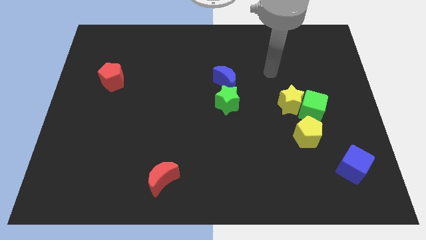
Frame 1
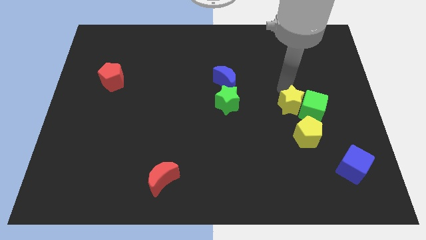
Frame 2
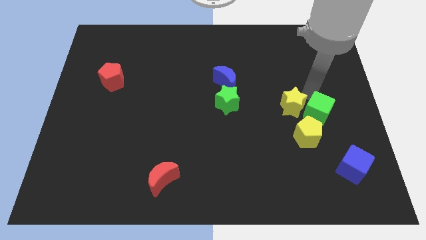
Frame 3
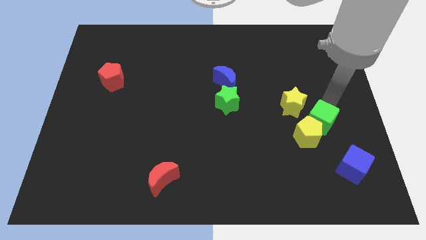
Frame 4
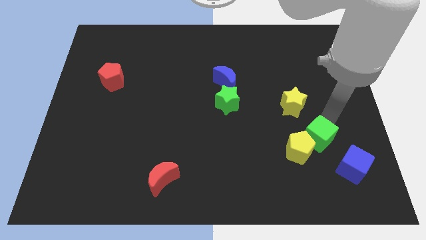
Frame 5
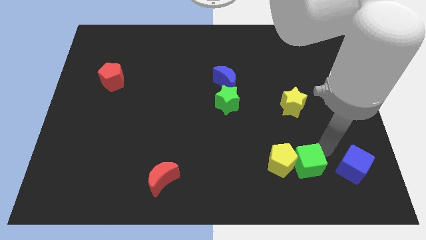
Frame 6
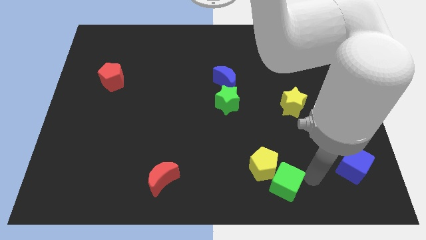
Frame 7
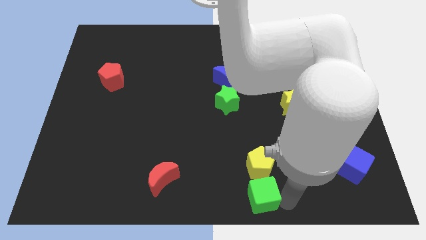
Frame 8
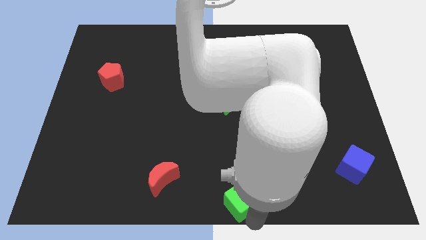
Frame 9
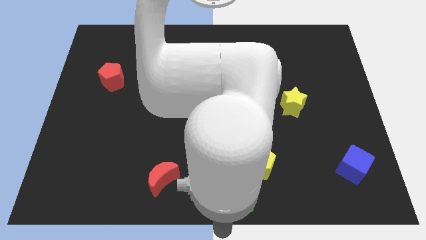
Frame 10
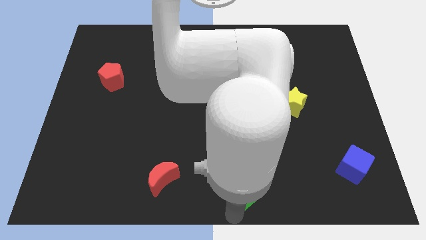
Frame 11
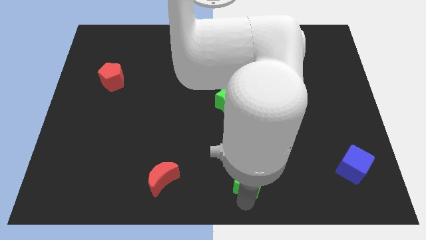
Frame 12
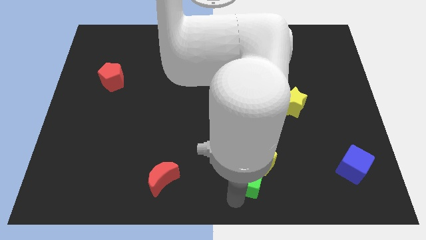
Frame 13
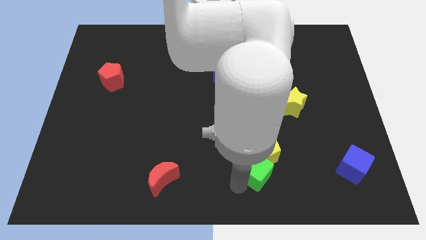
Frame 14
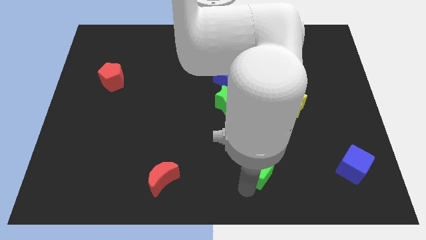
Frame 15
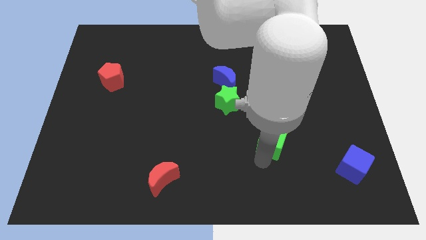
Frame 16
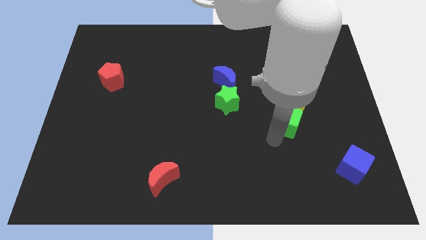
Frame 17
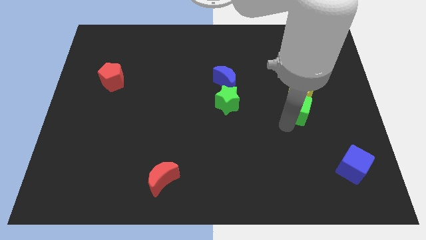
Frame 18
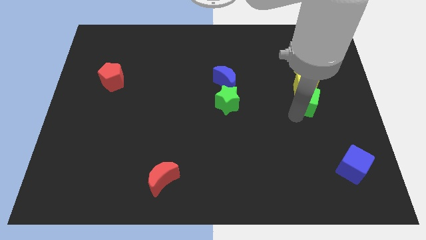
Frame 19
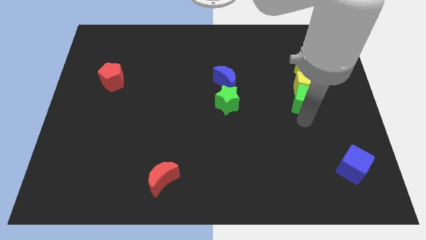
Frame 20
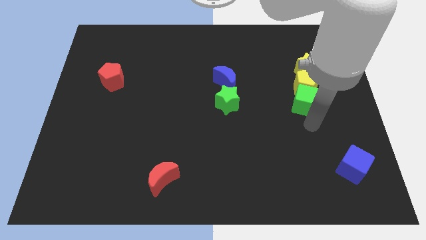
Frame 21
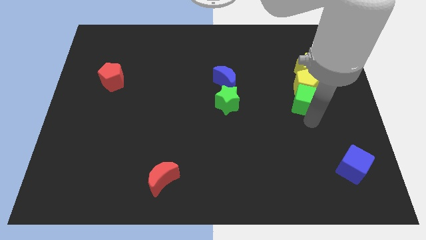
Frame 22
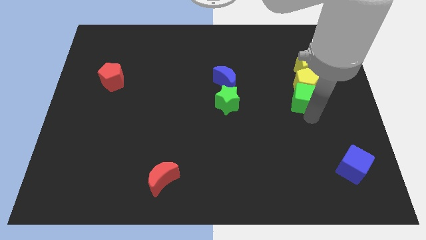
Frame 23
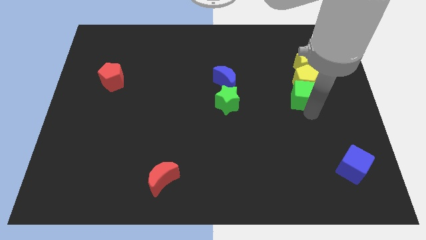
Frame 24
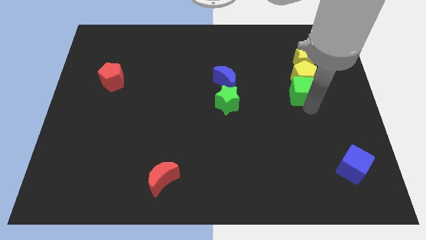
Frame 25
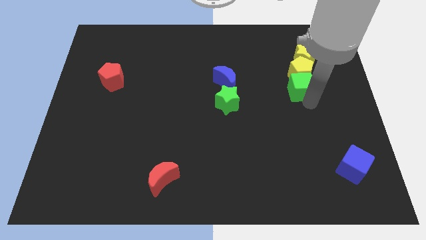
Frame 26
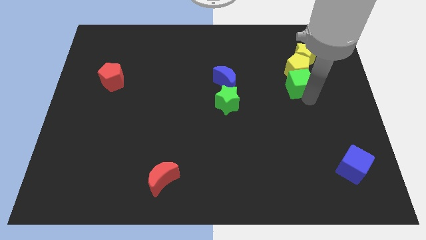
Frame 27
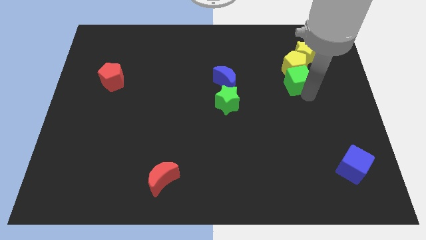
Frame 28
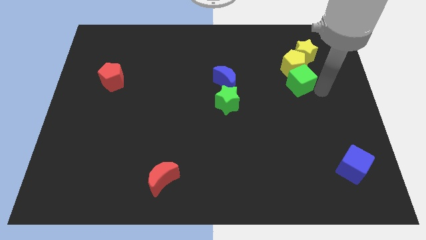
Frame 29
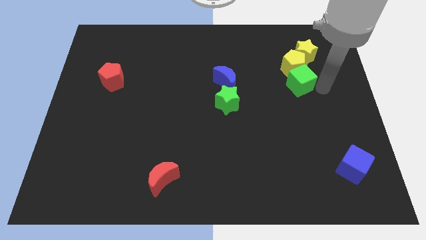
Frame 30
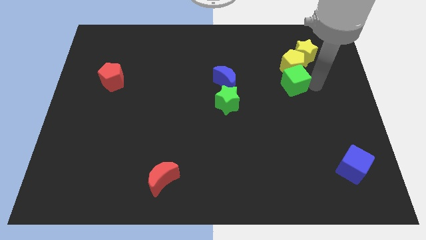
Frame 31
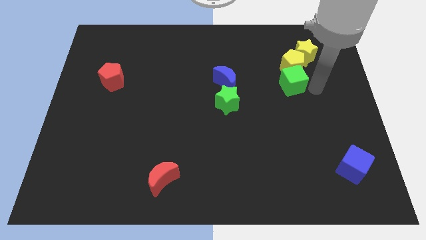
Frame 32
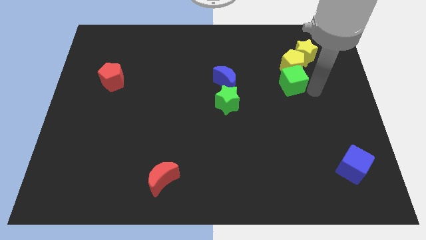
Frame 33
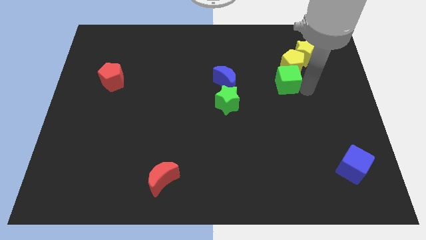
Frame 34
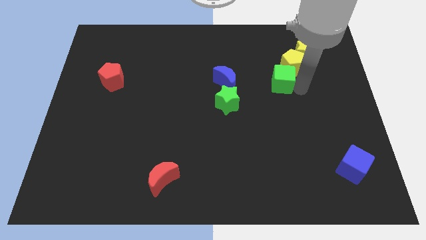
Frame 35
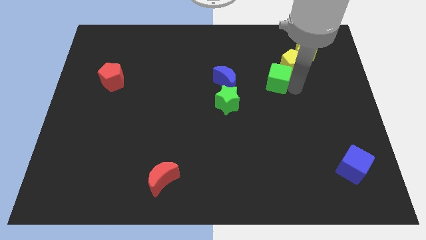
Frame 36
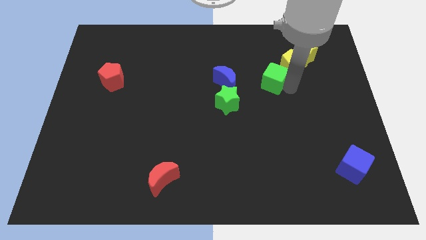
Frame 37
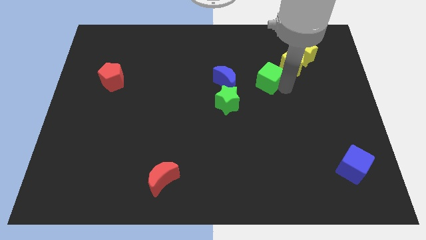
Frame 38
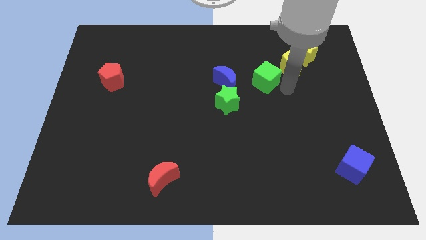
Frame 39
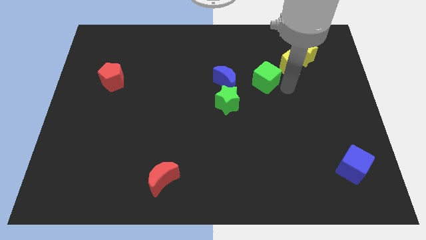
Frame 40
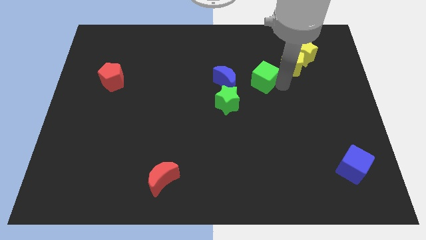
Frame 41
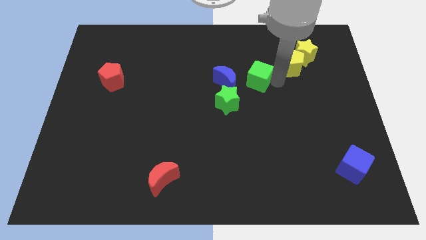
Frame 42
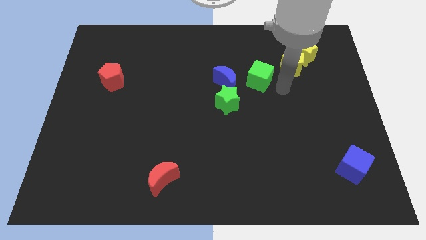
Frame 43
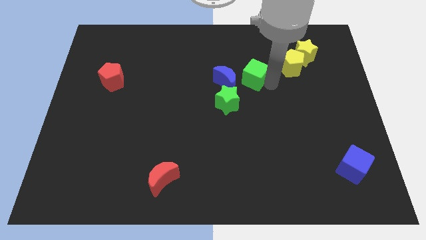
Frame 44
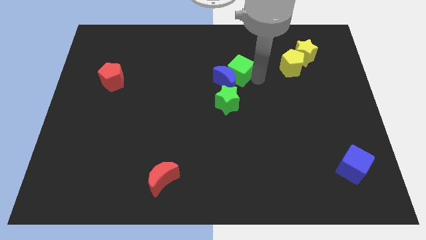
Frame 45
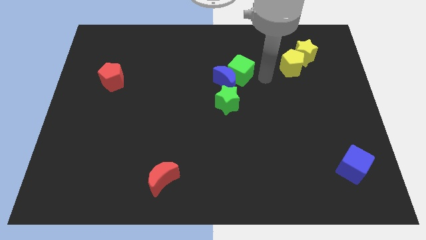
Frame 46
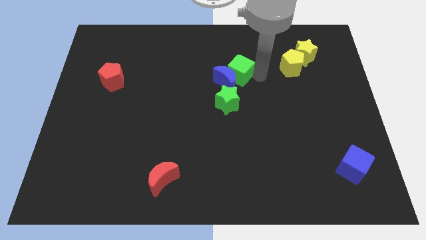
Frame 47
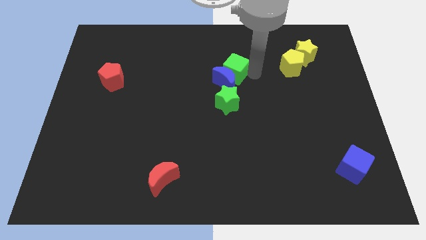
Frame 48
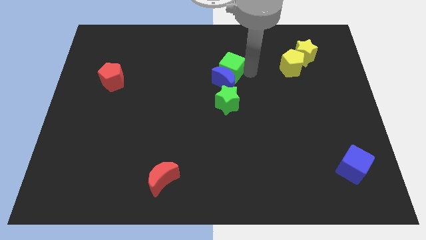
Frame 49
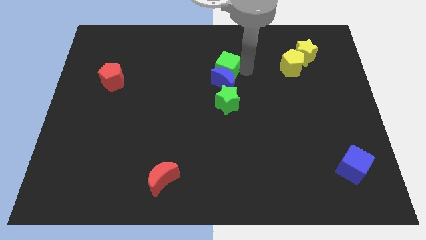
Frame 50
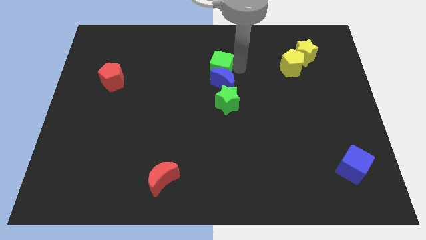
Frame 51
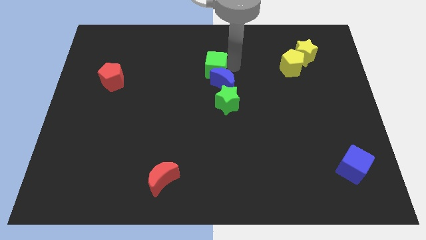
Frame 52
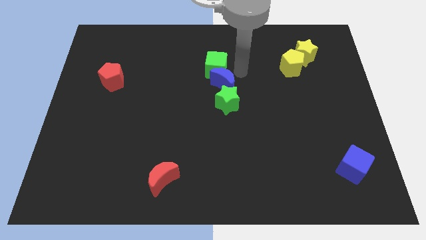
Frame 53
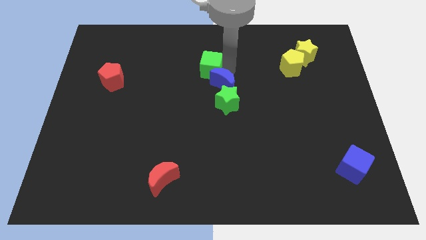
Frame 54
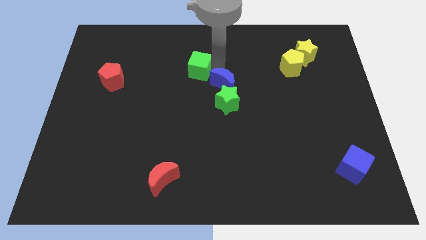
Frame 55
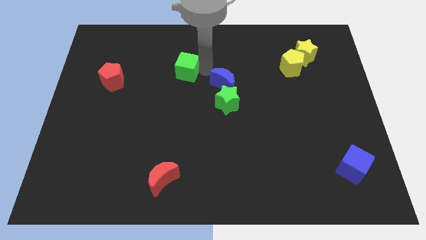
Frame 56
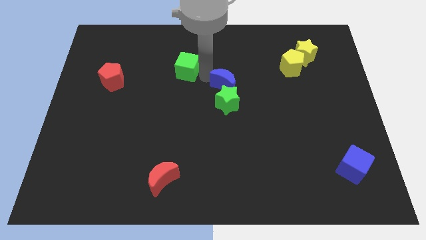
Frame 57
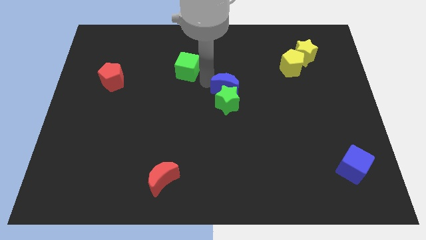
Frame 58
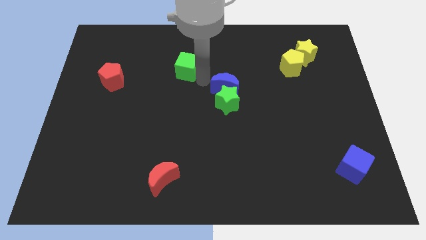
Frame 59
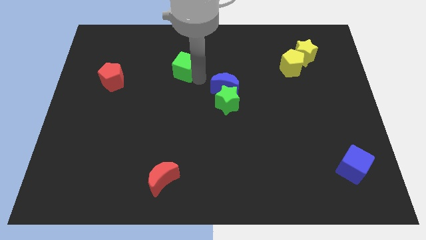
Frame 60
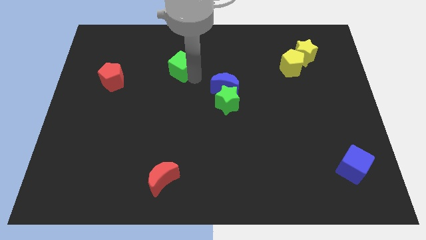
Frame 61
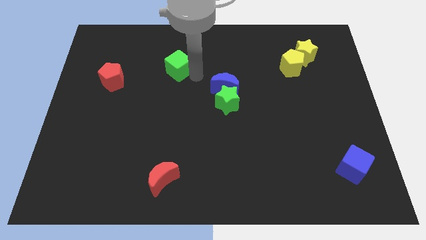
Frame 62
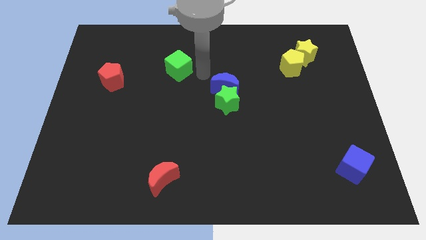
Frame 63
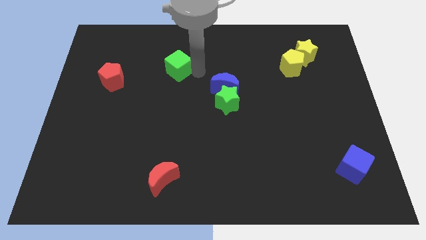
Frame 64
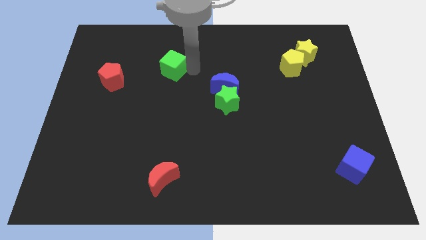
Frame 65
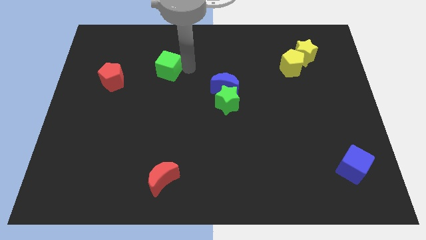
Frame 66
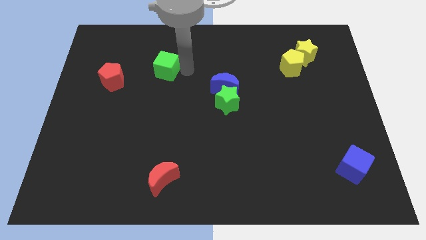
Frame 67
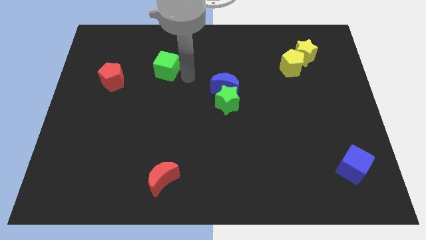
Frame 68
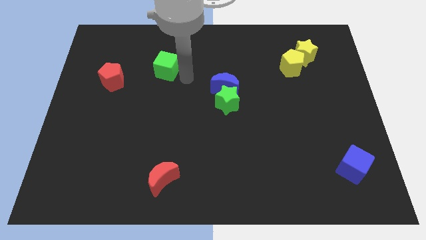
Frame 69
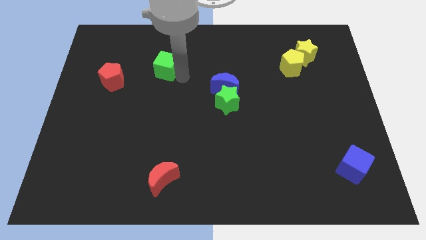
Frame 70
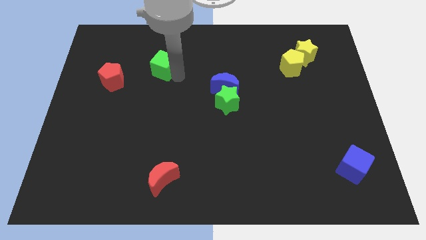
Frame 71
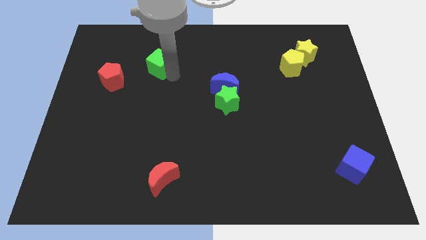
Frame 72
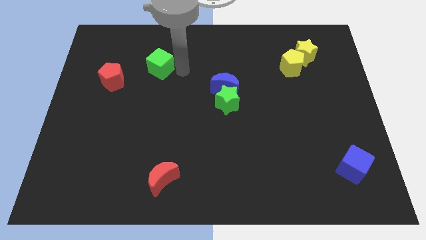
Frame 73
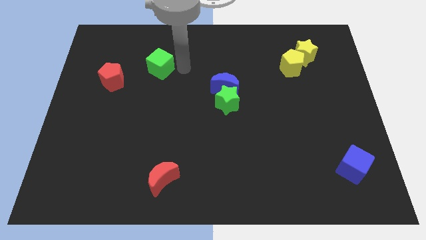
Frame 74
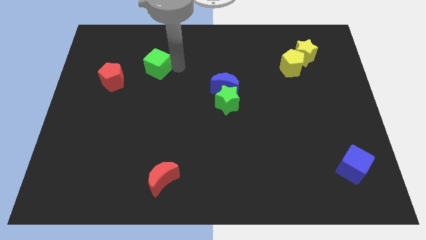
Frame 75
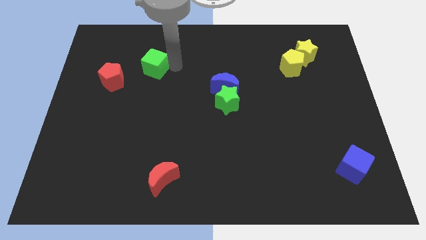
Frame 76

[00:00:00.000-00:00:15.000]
push the green cube to the top right of the red pentagon

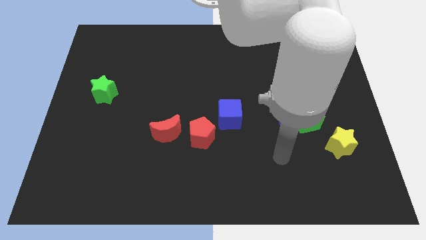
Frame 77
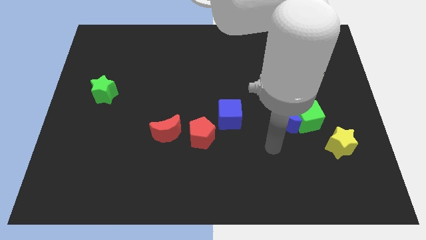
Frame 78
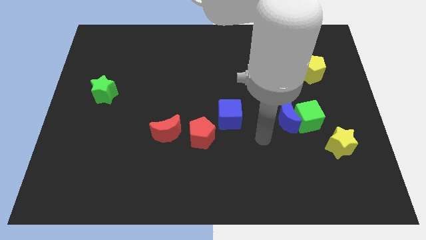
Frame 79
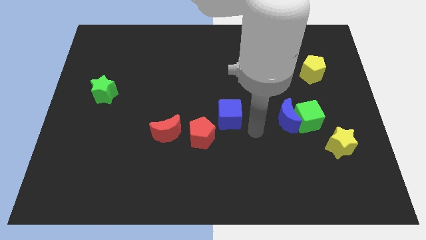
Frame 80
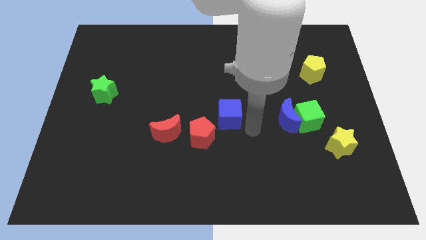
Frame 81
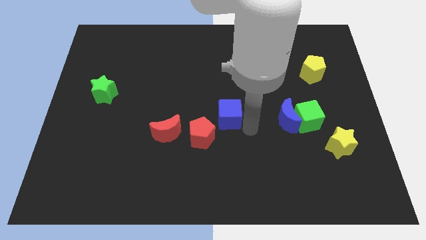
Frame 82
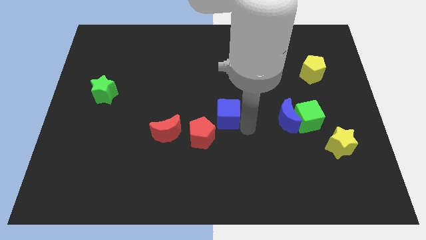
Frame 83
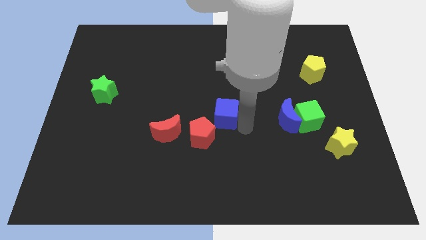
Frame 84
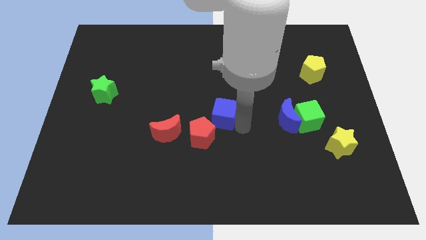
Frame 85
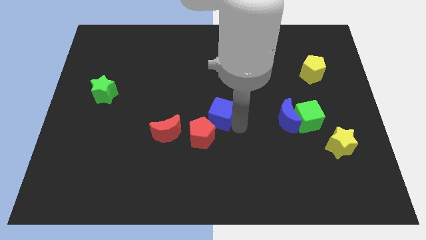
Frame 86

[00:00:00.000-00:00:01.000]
move the blue cube above the red pentagon
